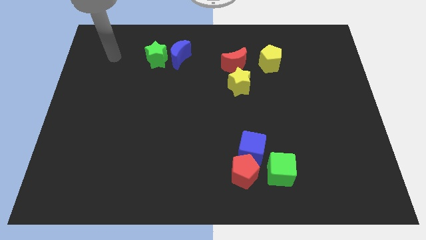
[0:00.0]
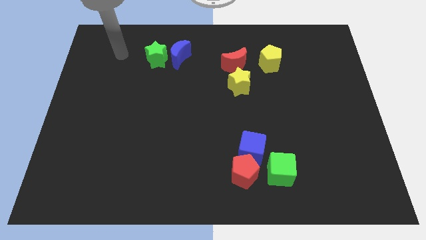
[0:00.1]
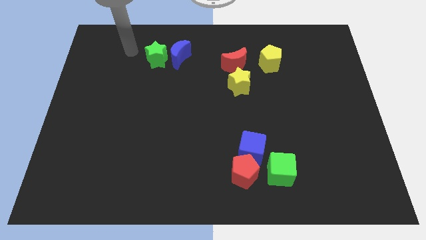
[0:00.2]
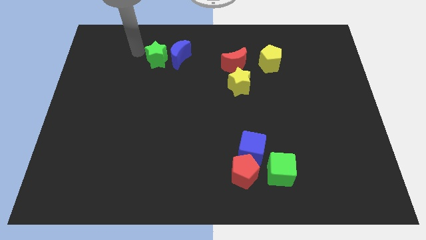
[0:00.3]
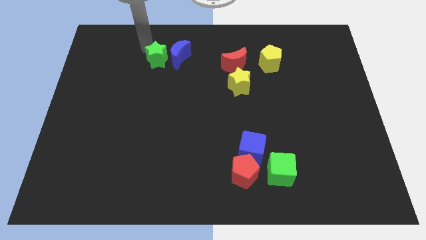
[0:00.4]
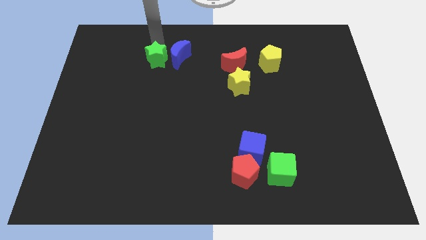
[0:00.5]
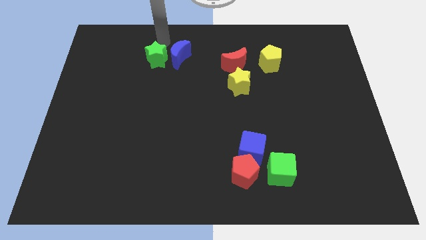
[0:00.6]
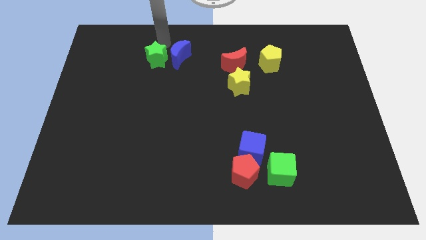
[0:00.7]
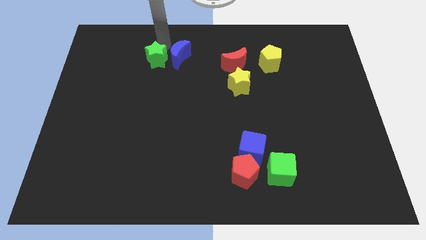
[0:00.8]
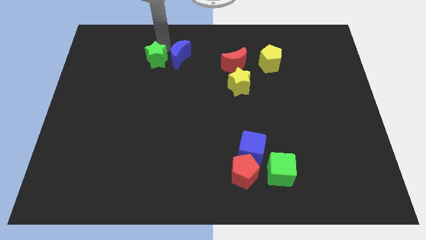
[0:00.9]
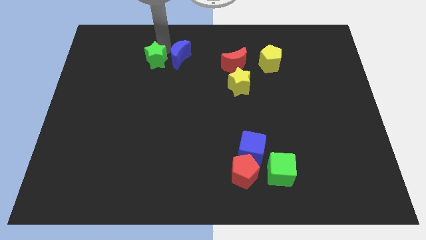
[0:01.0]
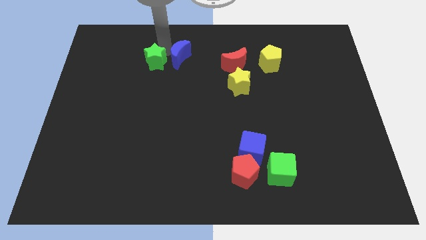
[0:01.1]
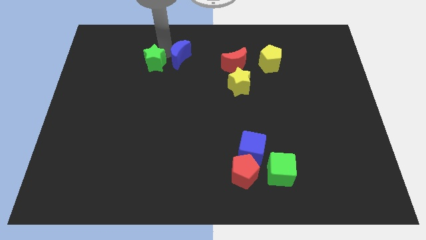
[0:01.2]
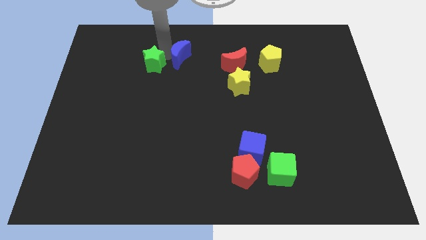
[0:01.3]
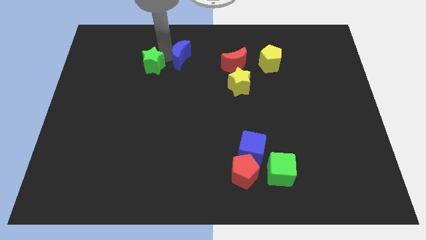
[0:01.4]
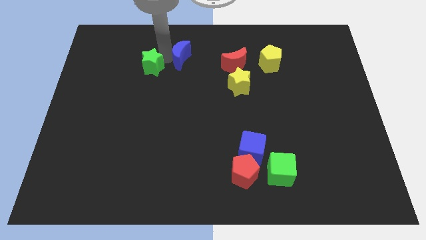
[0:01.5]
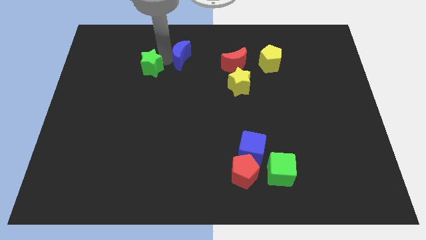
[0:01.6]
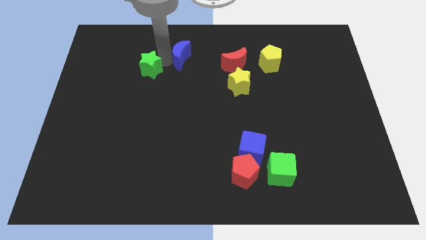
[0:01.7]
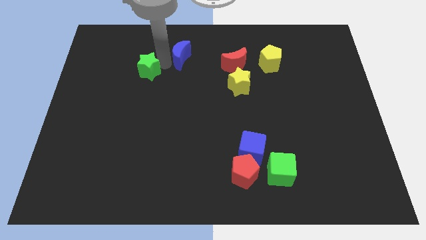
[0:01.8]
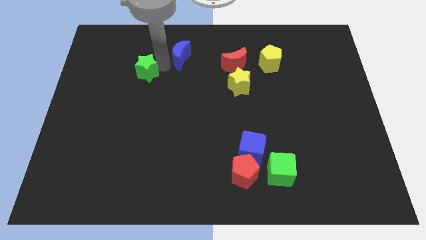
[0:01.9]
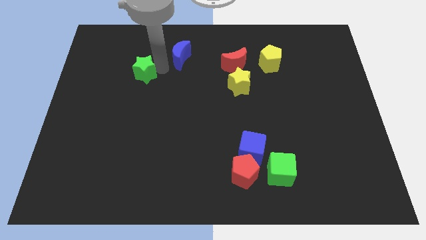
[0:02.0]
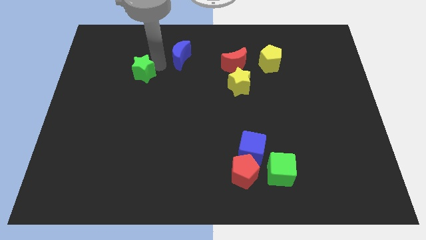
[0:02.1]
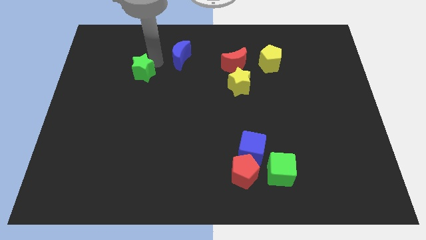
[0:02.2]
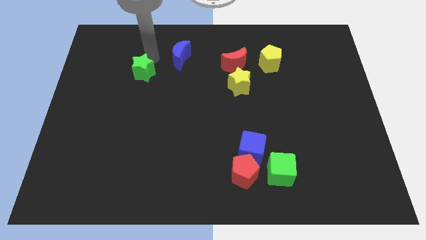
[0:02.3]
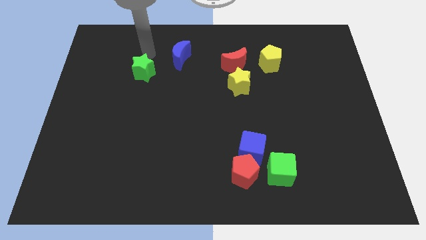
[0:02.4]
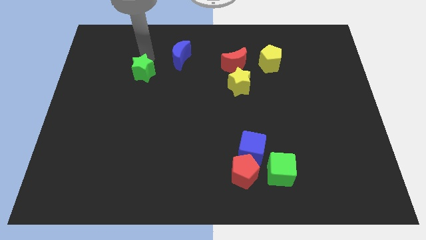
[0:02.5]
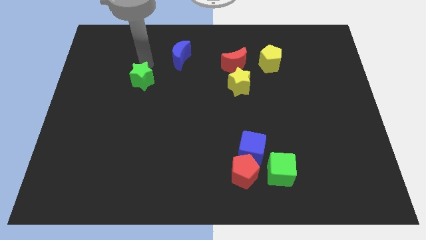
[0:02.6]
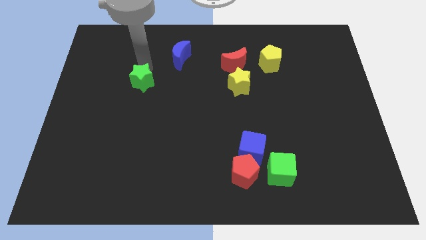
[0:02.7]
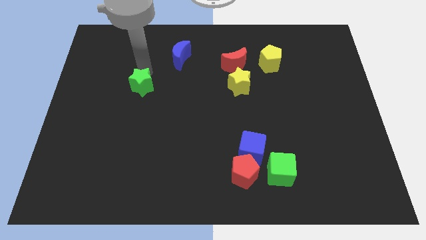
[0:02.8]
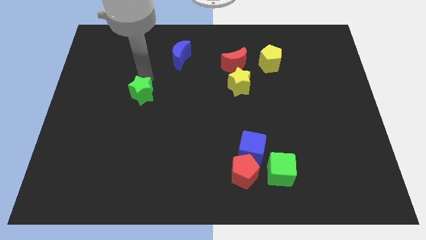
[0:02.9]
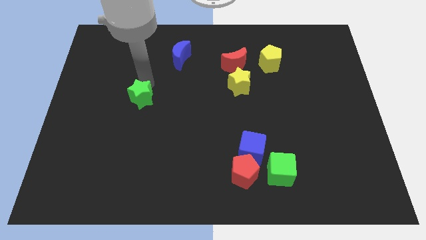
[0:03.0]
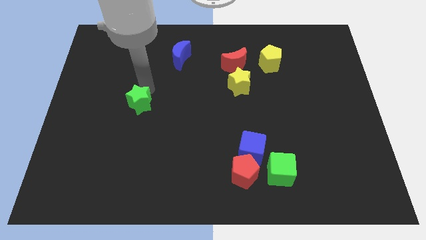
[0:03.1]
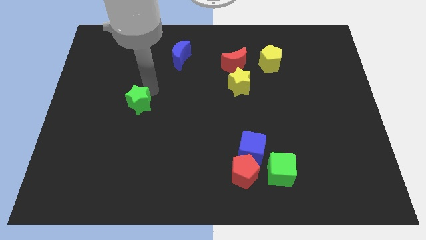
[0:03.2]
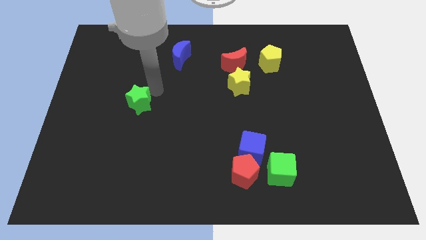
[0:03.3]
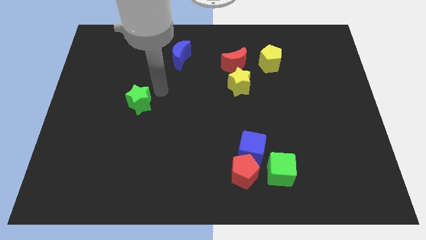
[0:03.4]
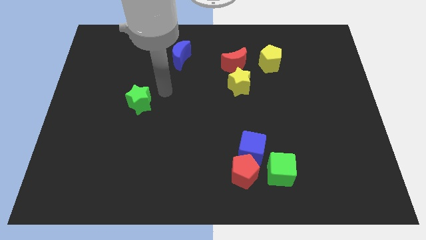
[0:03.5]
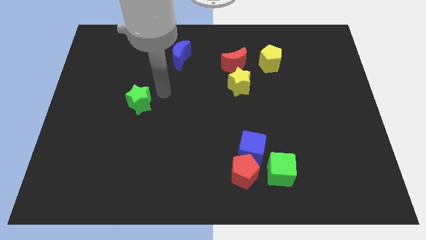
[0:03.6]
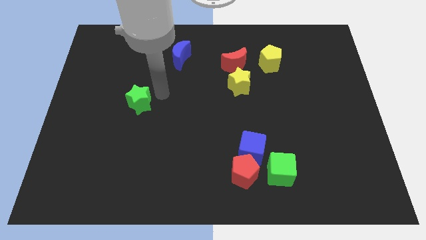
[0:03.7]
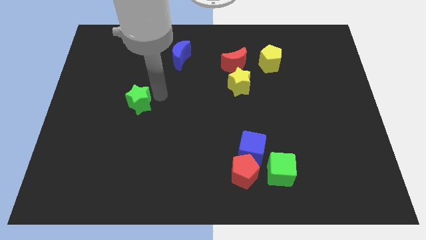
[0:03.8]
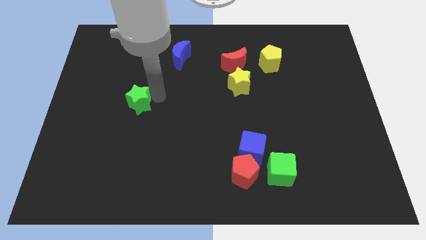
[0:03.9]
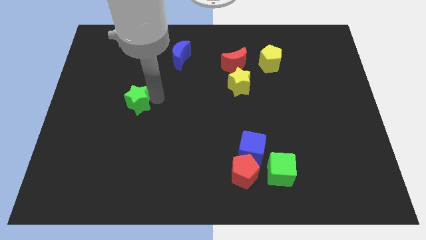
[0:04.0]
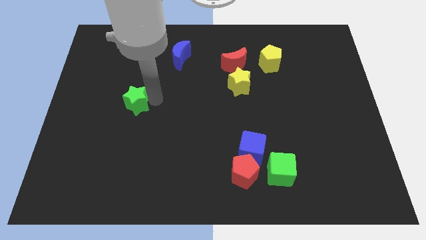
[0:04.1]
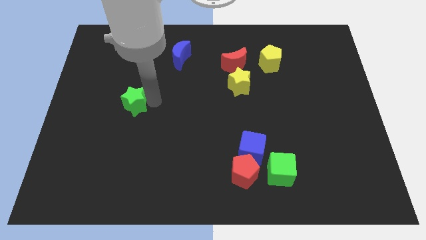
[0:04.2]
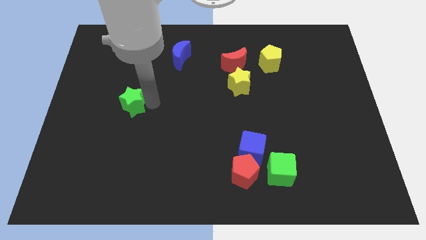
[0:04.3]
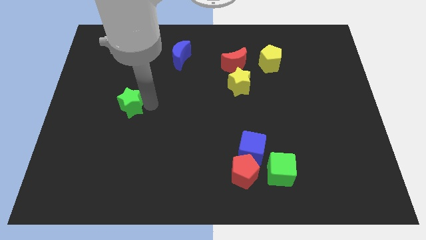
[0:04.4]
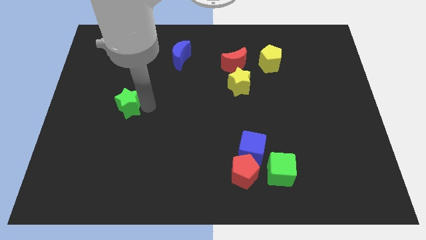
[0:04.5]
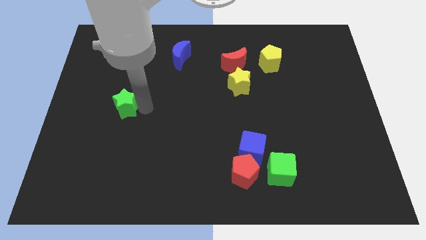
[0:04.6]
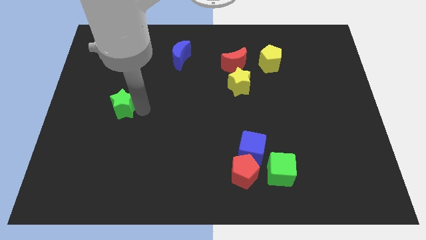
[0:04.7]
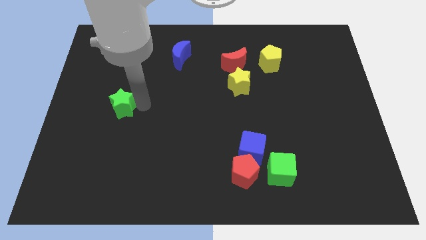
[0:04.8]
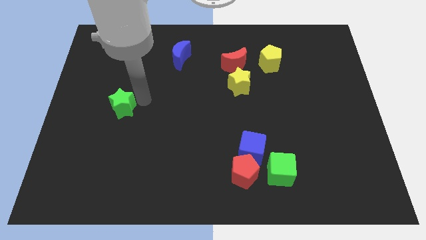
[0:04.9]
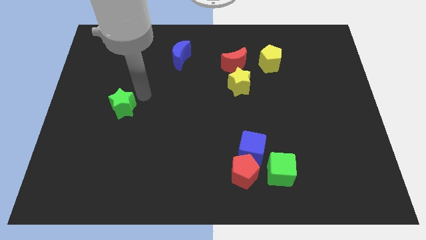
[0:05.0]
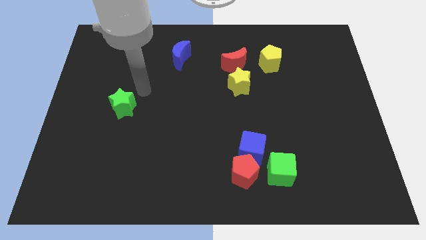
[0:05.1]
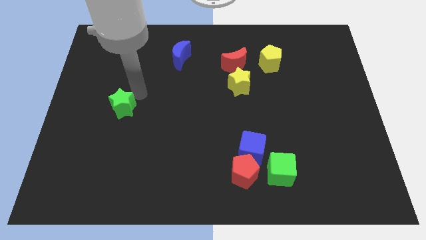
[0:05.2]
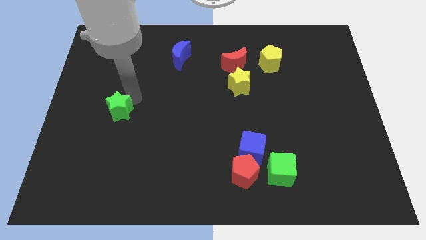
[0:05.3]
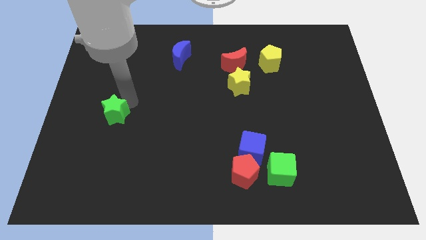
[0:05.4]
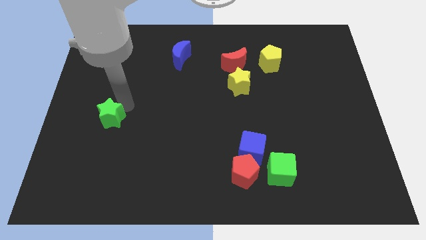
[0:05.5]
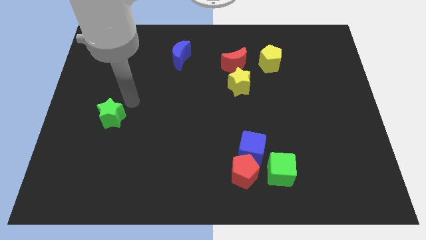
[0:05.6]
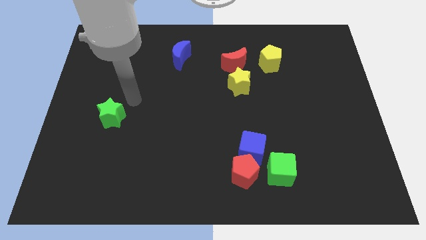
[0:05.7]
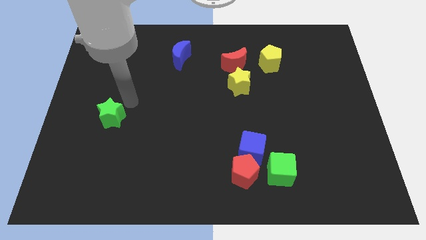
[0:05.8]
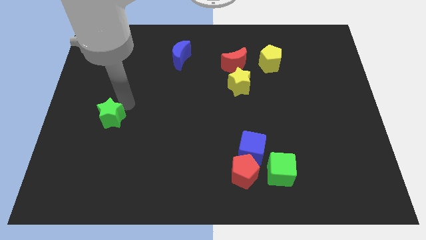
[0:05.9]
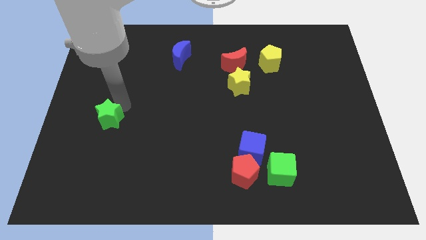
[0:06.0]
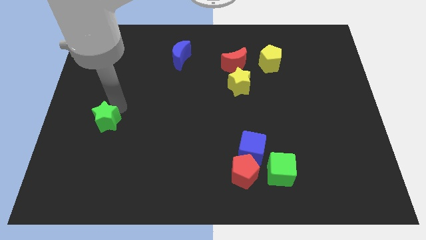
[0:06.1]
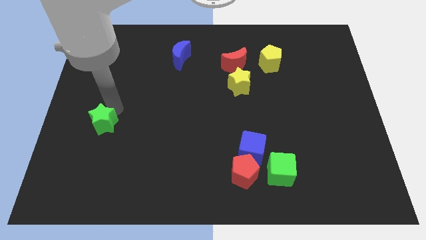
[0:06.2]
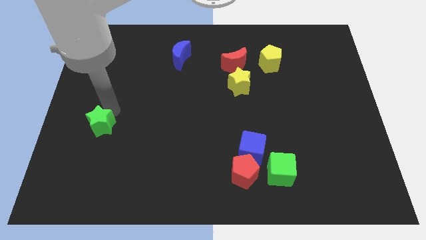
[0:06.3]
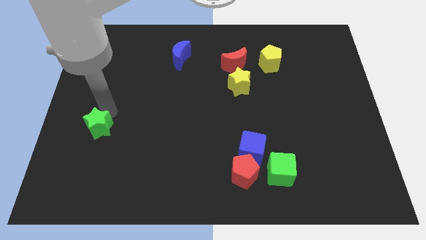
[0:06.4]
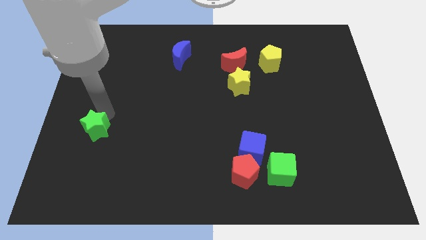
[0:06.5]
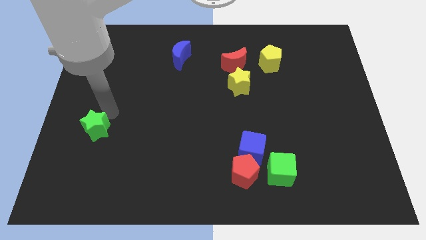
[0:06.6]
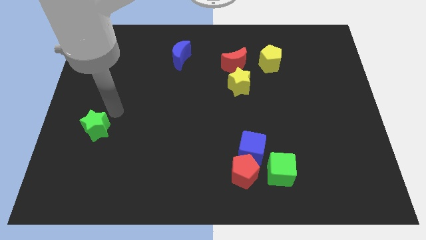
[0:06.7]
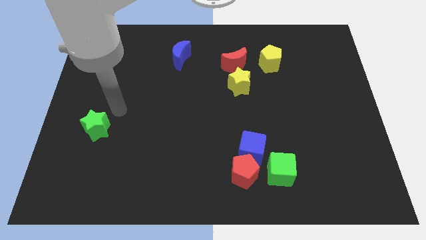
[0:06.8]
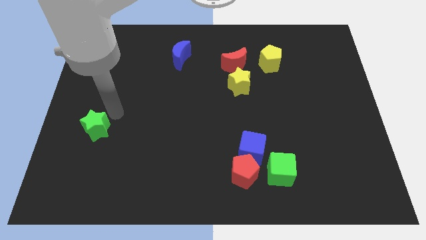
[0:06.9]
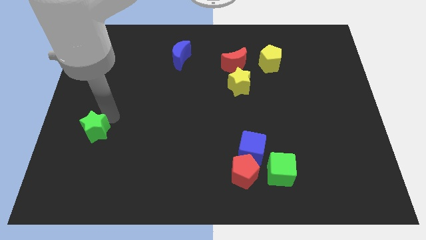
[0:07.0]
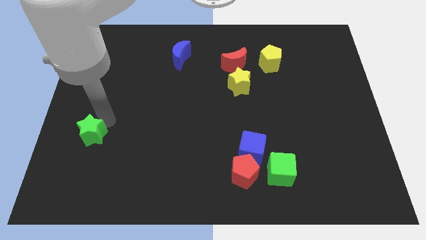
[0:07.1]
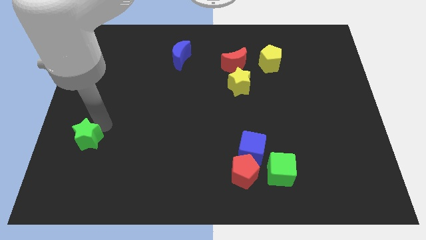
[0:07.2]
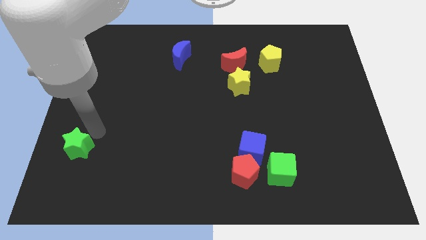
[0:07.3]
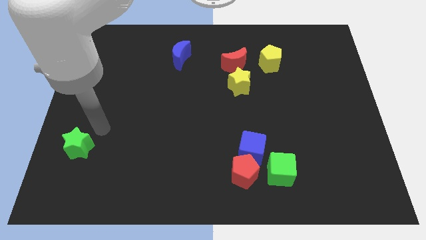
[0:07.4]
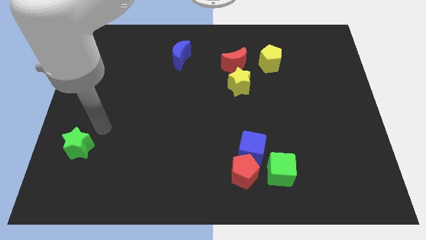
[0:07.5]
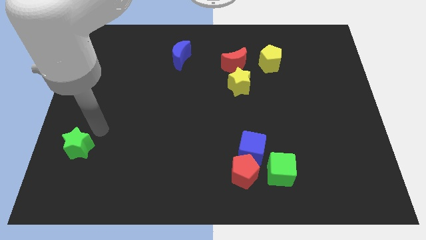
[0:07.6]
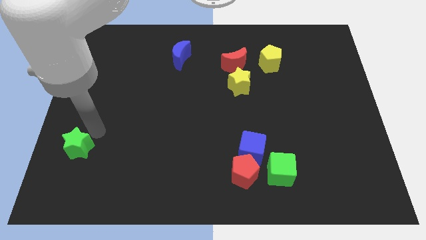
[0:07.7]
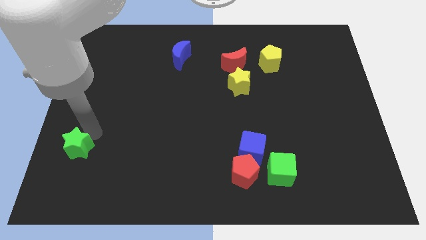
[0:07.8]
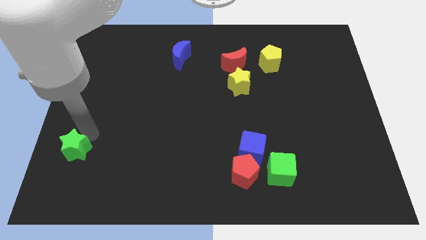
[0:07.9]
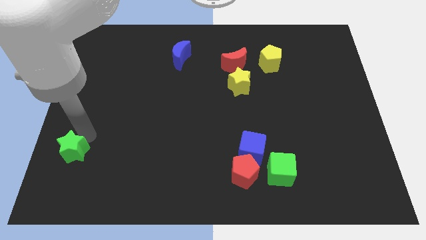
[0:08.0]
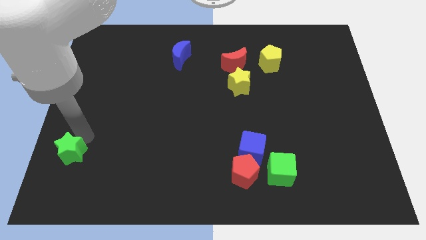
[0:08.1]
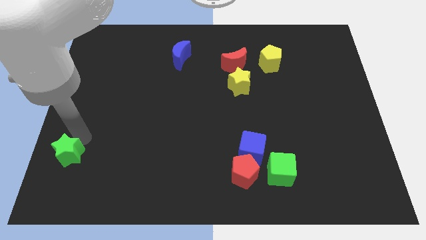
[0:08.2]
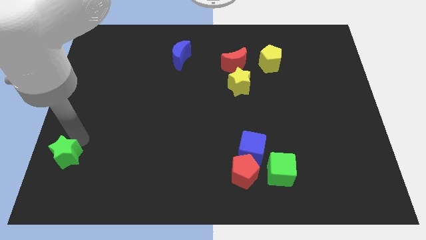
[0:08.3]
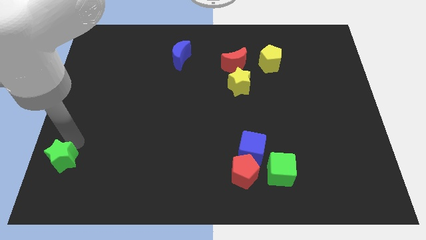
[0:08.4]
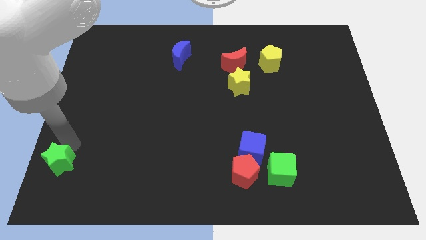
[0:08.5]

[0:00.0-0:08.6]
put the green star to the bottom left of the board
